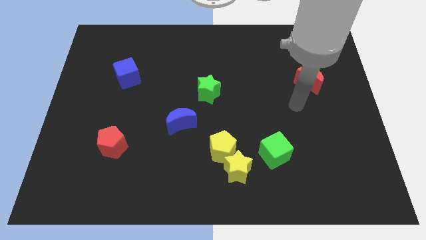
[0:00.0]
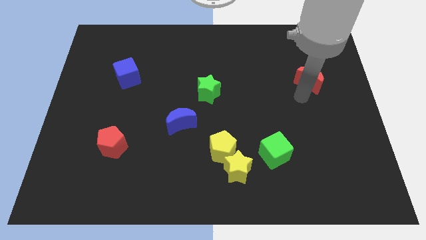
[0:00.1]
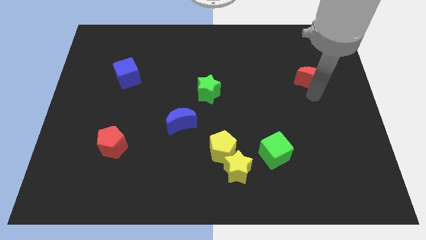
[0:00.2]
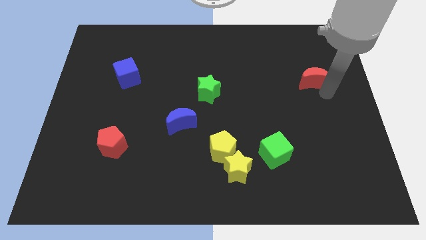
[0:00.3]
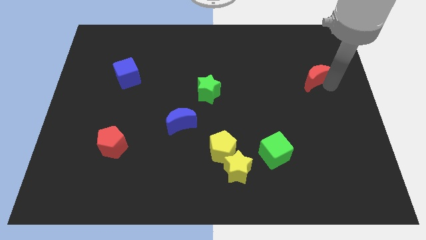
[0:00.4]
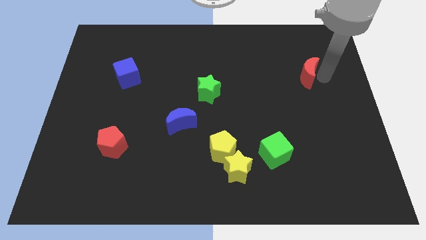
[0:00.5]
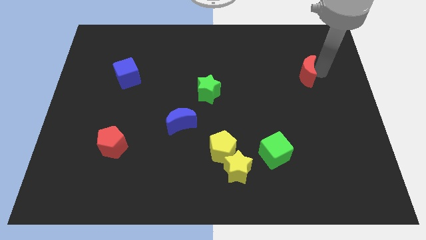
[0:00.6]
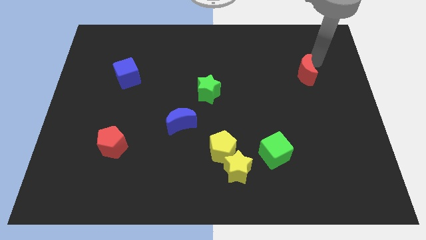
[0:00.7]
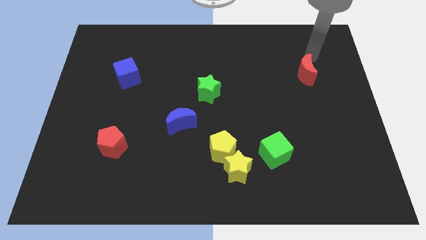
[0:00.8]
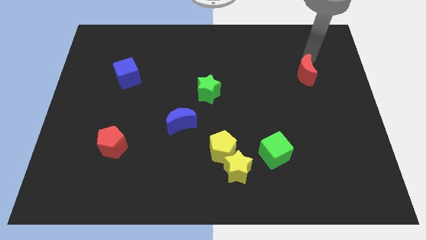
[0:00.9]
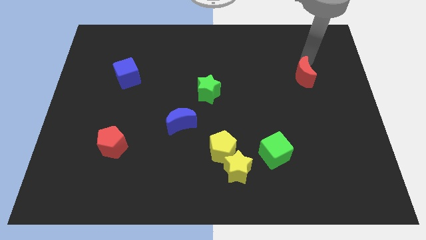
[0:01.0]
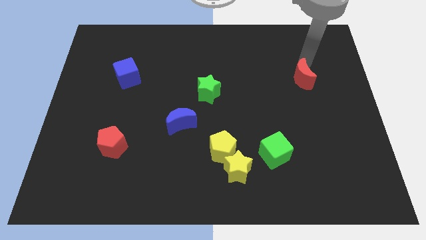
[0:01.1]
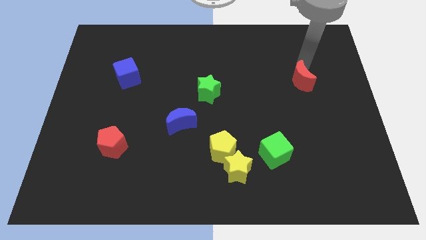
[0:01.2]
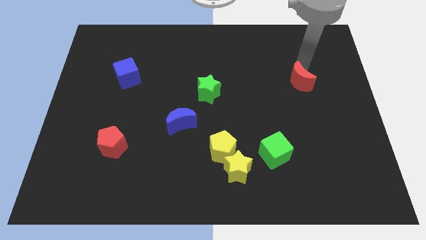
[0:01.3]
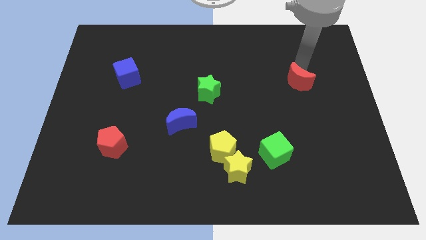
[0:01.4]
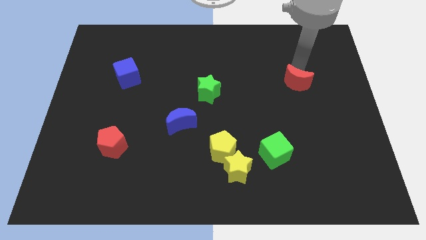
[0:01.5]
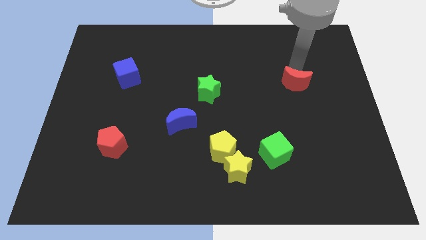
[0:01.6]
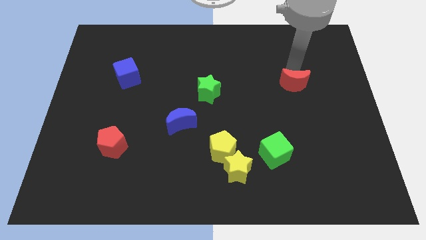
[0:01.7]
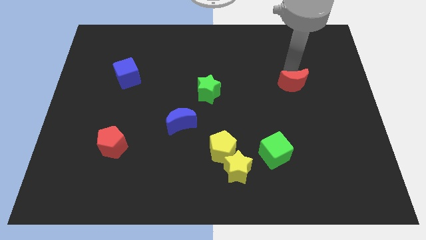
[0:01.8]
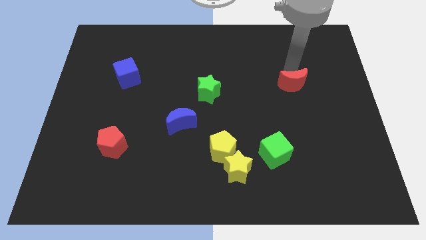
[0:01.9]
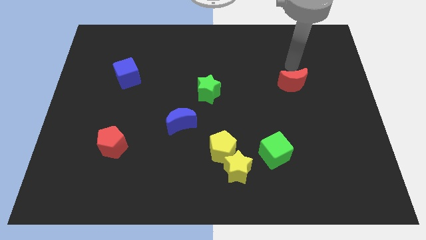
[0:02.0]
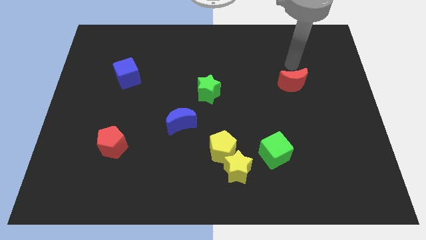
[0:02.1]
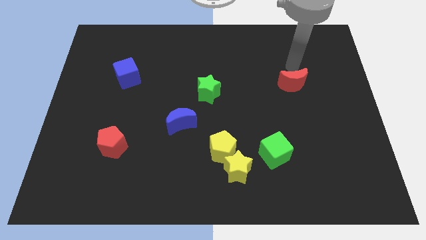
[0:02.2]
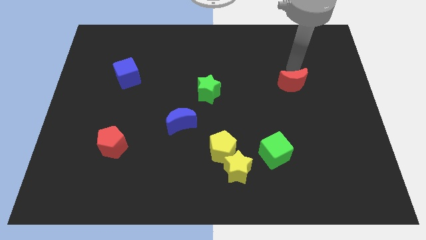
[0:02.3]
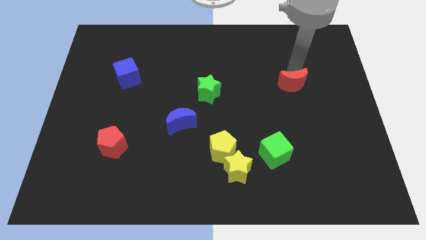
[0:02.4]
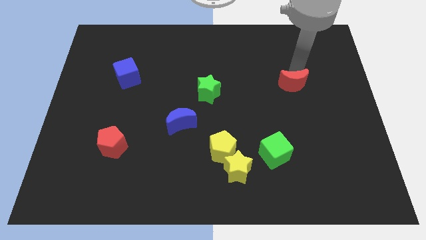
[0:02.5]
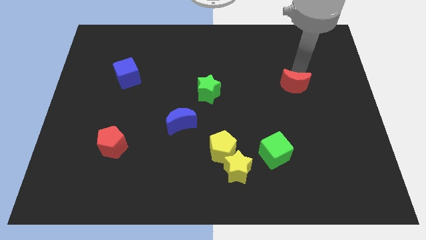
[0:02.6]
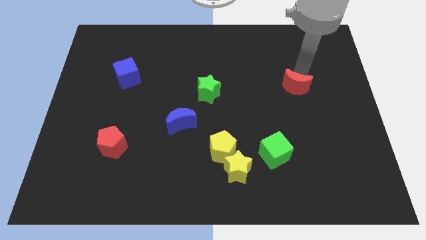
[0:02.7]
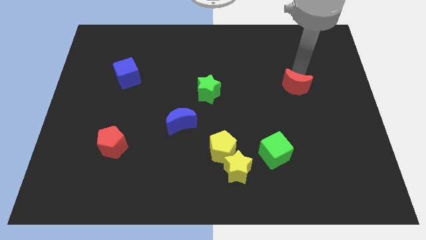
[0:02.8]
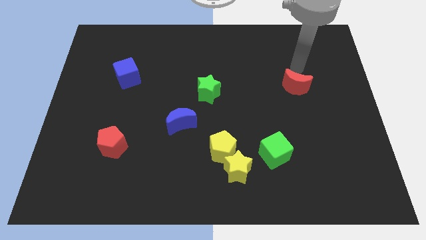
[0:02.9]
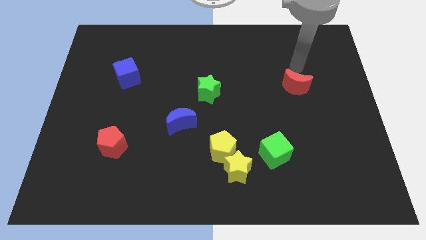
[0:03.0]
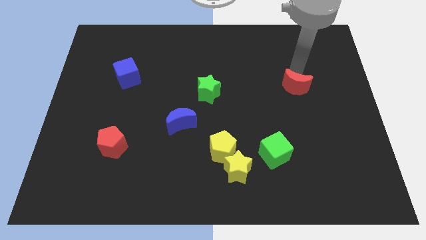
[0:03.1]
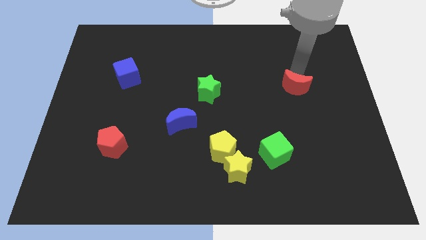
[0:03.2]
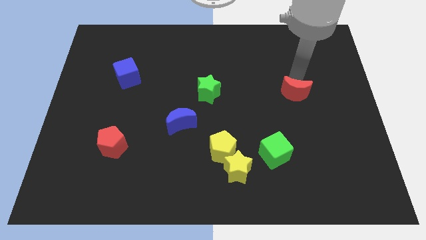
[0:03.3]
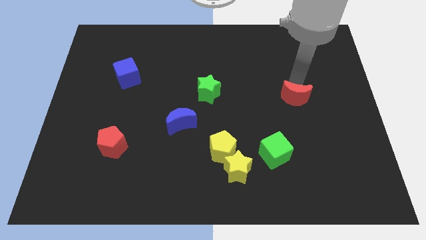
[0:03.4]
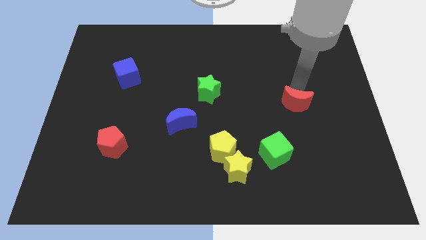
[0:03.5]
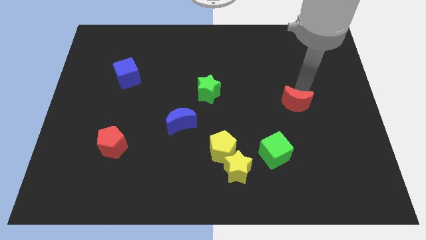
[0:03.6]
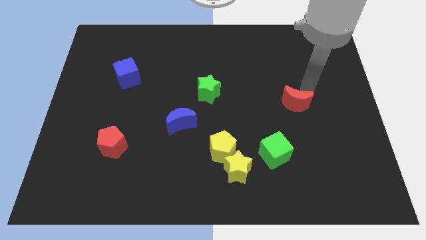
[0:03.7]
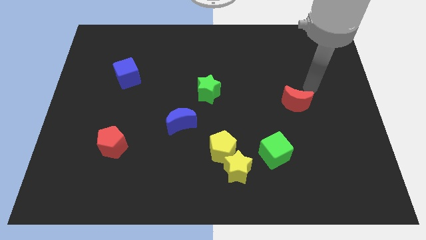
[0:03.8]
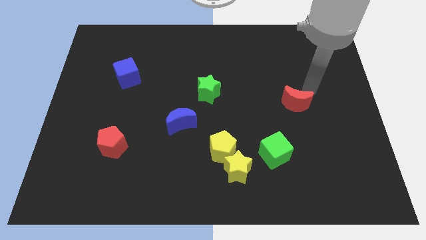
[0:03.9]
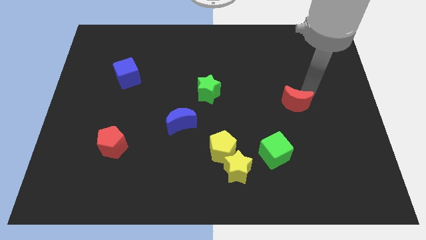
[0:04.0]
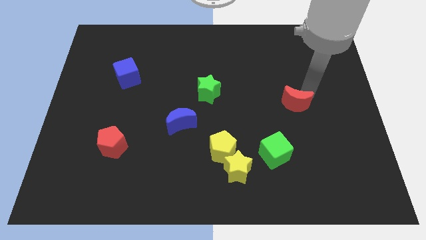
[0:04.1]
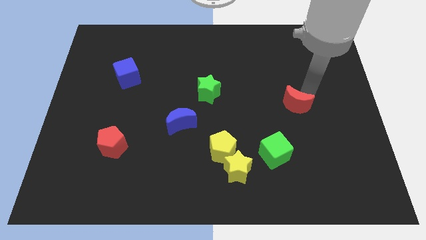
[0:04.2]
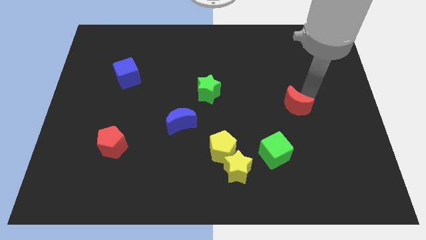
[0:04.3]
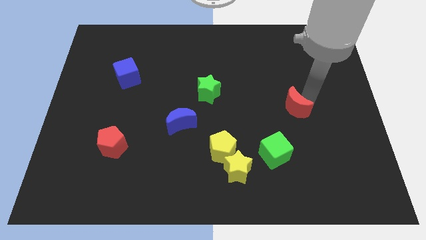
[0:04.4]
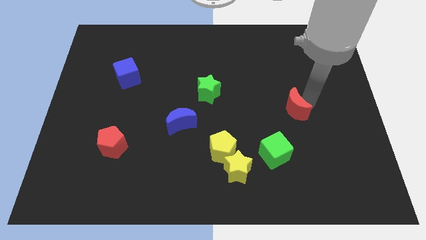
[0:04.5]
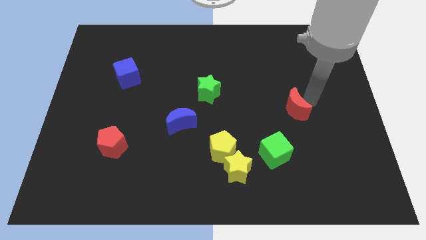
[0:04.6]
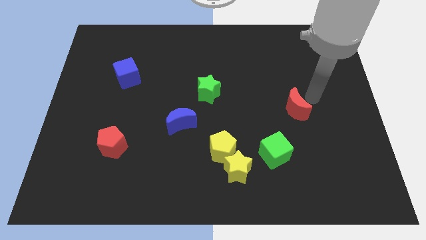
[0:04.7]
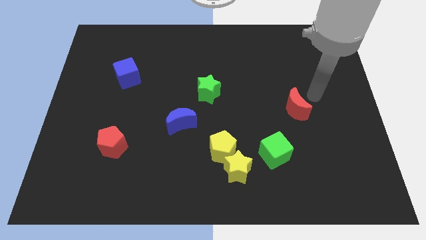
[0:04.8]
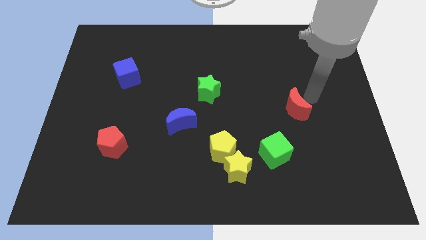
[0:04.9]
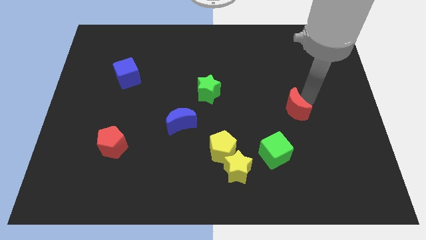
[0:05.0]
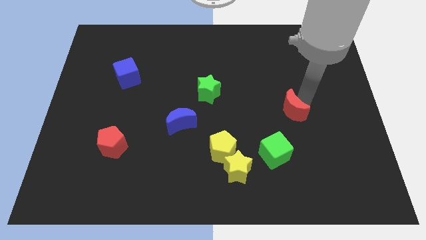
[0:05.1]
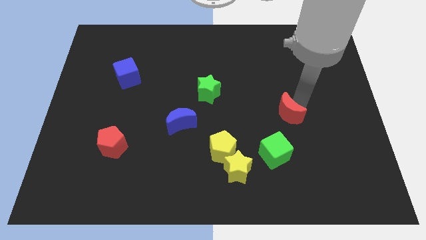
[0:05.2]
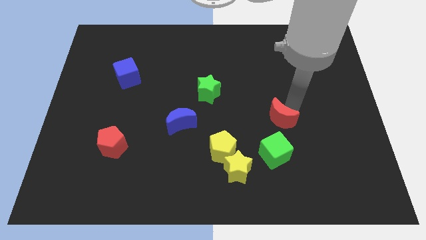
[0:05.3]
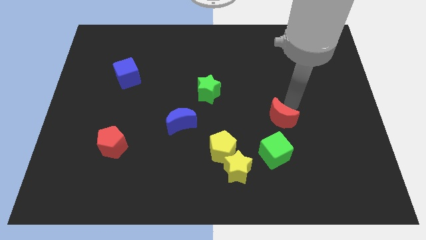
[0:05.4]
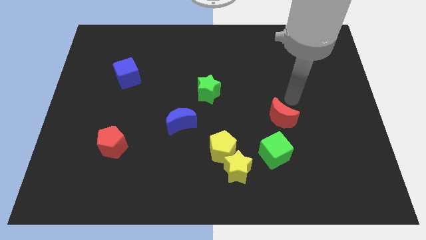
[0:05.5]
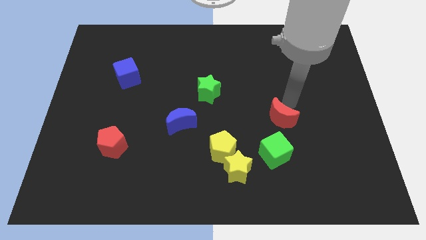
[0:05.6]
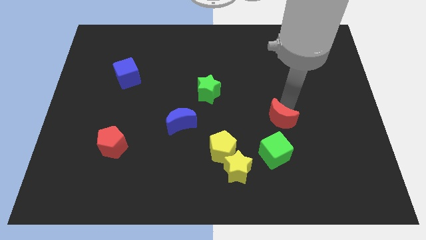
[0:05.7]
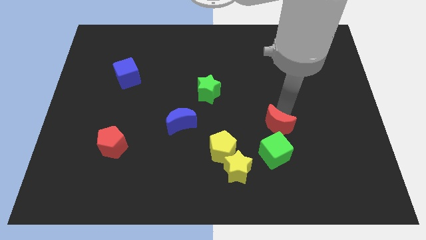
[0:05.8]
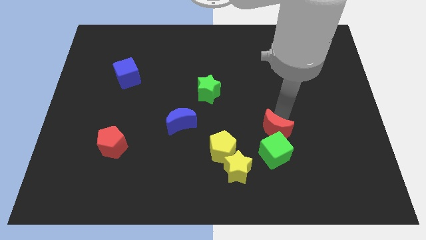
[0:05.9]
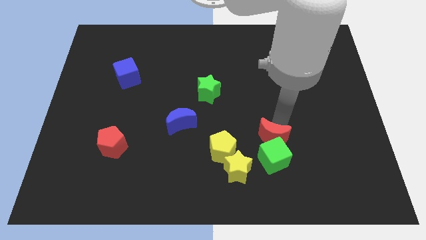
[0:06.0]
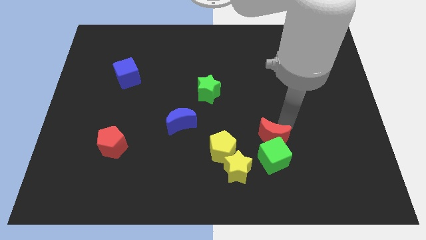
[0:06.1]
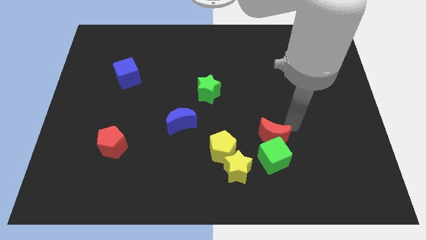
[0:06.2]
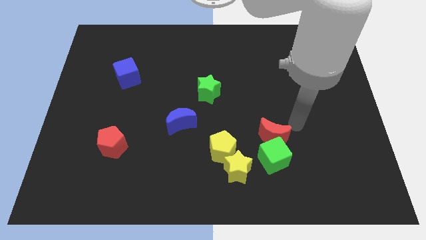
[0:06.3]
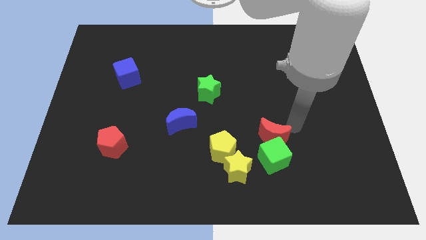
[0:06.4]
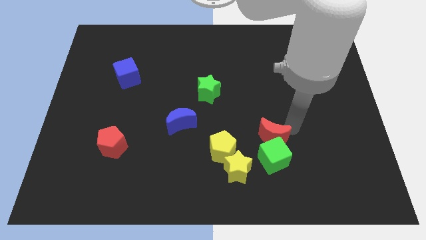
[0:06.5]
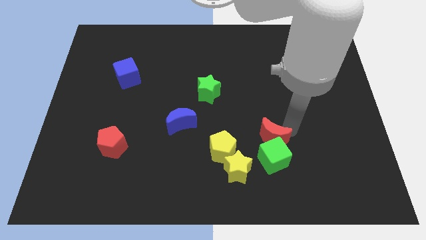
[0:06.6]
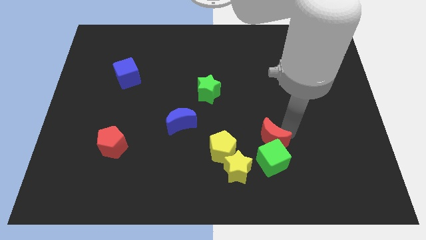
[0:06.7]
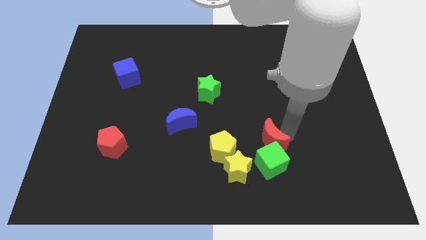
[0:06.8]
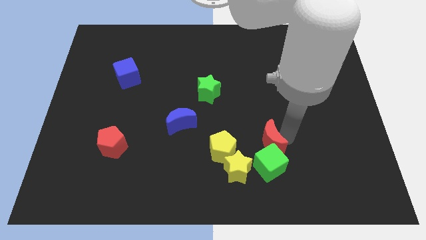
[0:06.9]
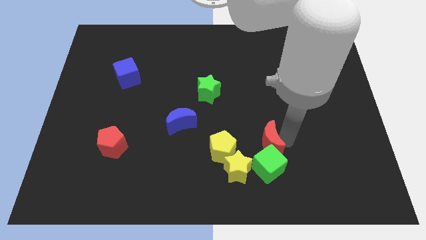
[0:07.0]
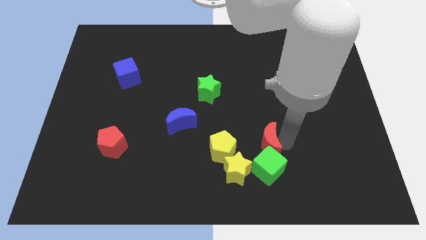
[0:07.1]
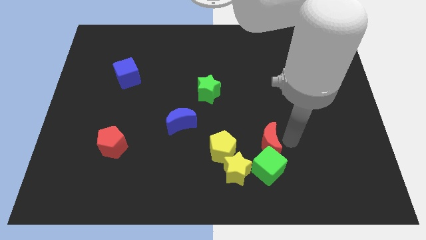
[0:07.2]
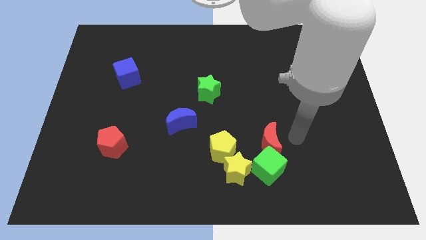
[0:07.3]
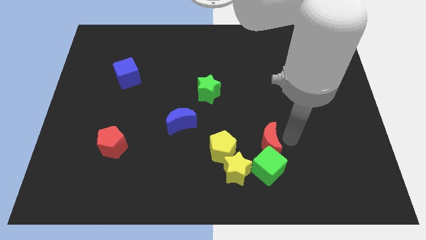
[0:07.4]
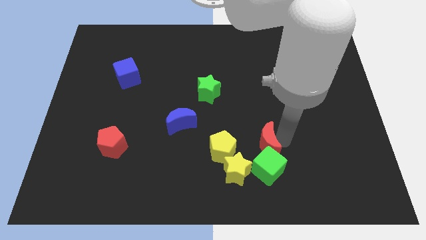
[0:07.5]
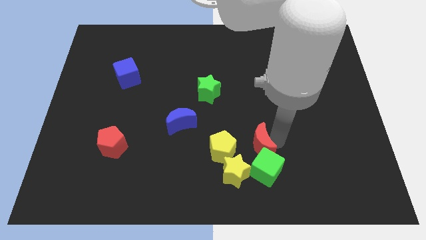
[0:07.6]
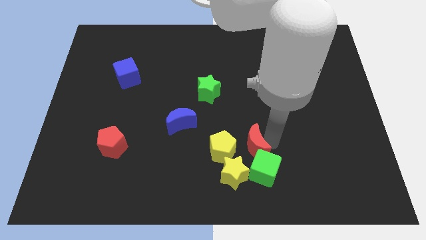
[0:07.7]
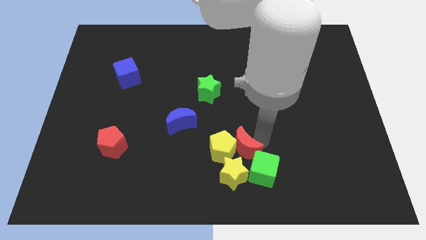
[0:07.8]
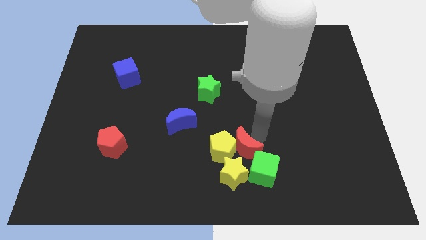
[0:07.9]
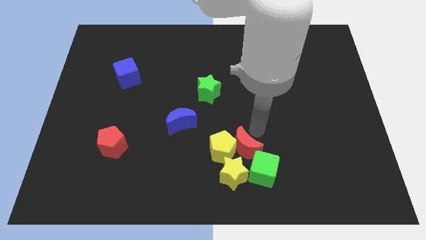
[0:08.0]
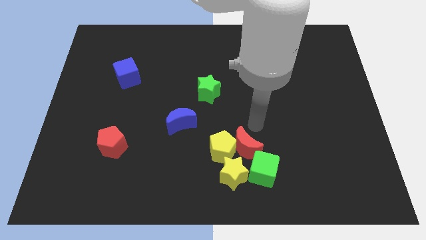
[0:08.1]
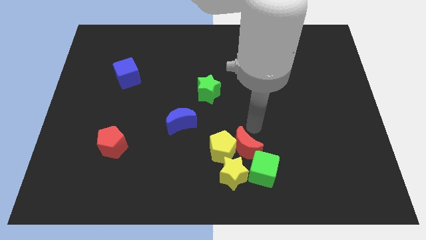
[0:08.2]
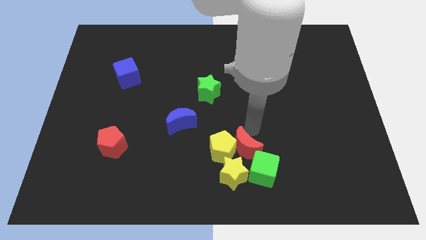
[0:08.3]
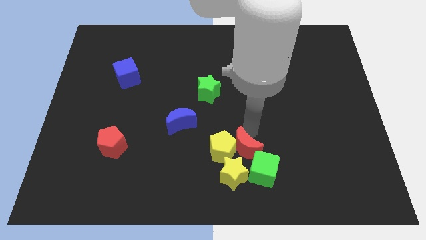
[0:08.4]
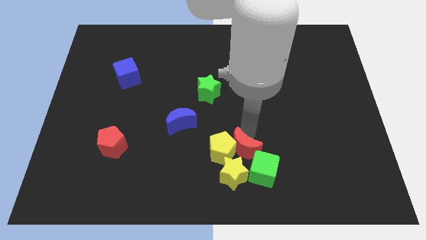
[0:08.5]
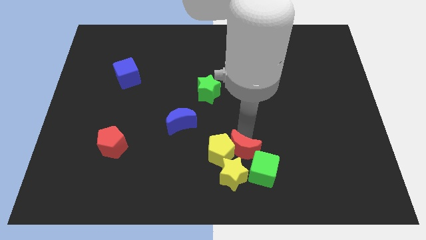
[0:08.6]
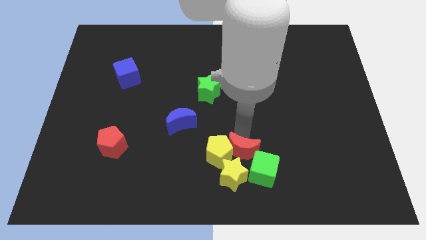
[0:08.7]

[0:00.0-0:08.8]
put the red moon close to the yellow star
